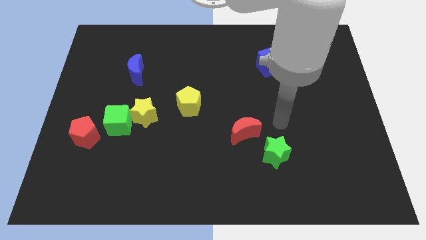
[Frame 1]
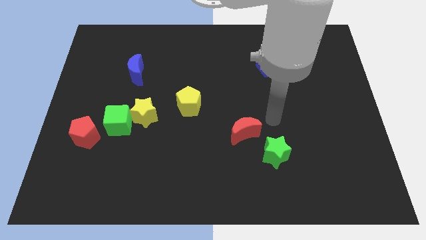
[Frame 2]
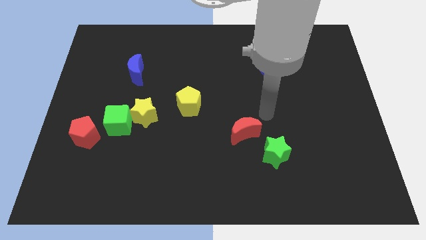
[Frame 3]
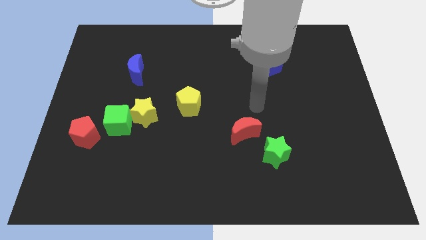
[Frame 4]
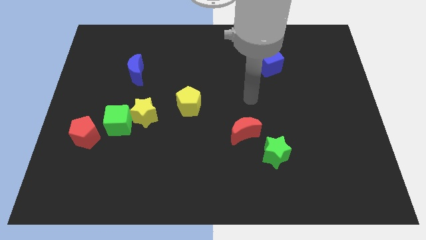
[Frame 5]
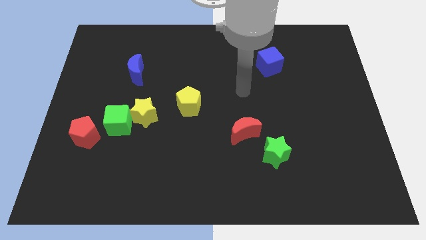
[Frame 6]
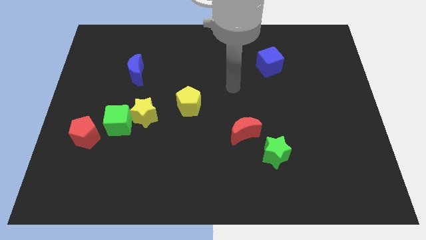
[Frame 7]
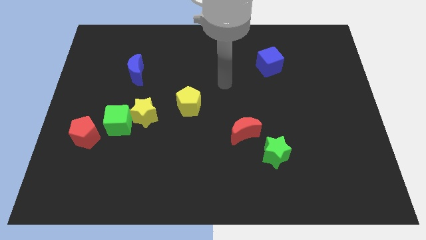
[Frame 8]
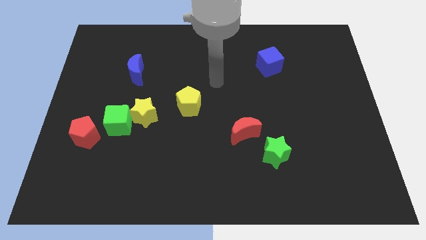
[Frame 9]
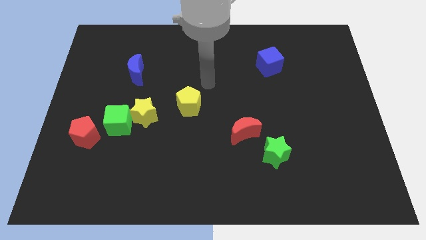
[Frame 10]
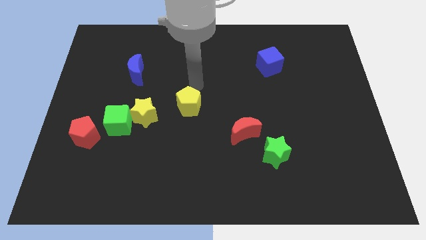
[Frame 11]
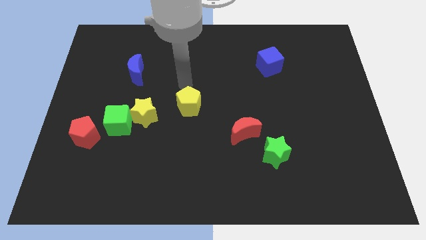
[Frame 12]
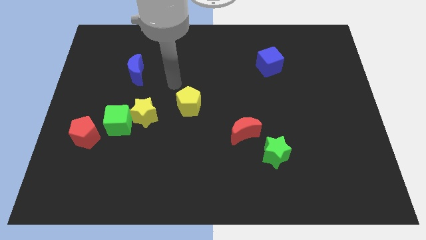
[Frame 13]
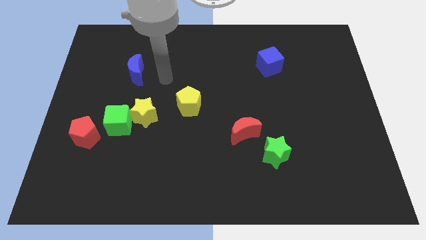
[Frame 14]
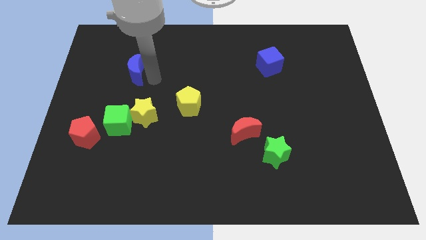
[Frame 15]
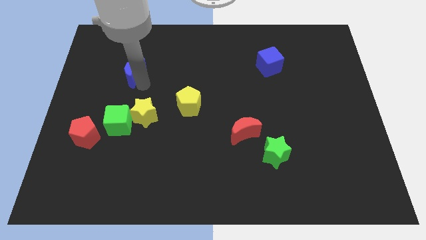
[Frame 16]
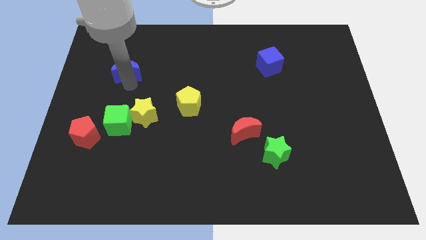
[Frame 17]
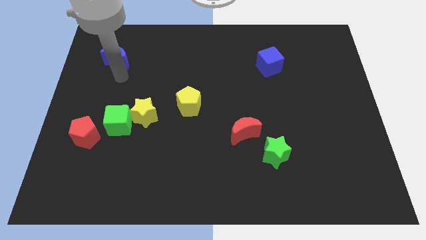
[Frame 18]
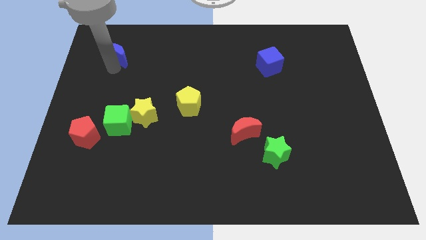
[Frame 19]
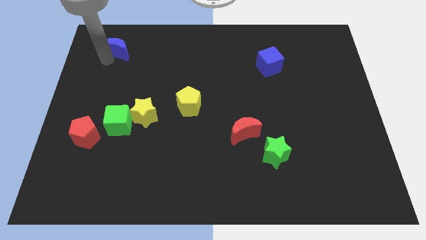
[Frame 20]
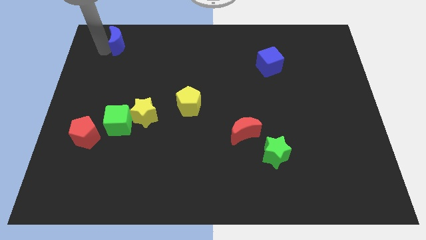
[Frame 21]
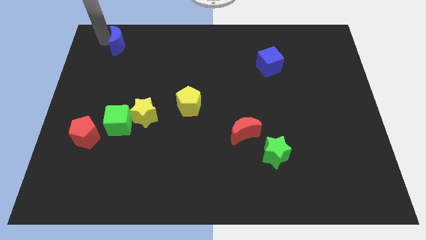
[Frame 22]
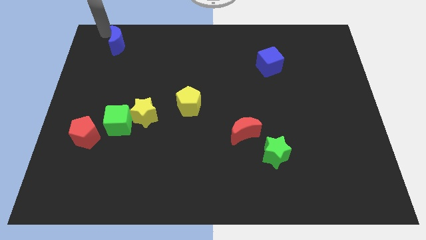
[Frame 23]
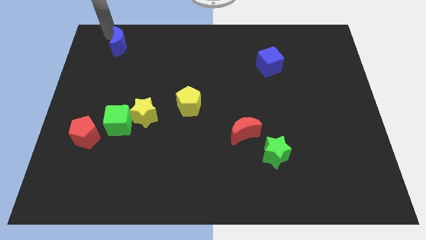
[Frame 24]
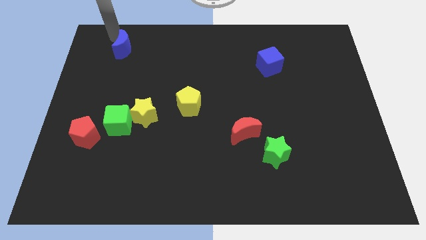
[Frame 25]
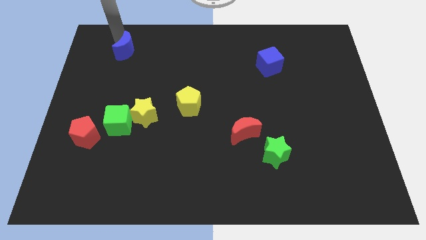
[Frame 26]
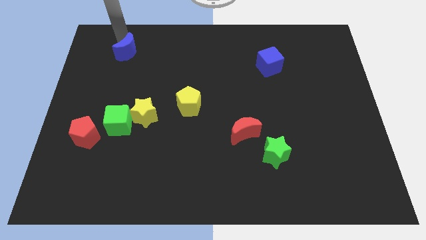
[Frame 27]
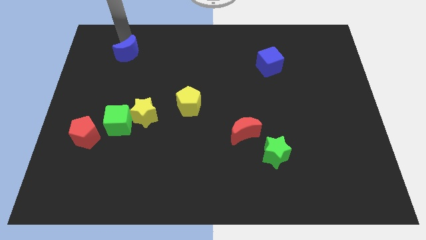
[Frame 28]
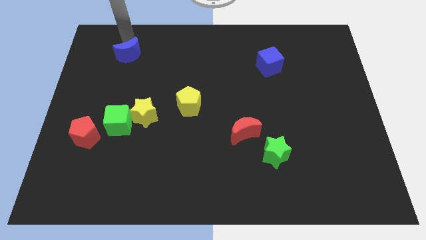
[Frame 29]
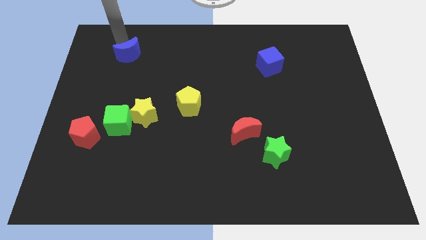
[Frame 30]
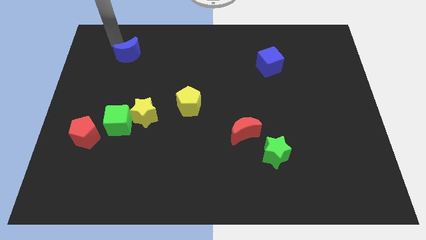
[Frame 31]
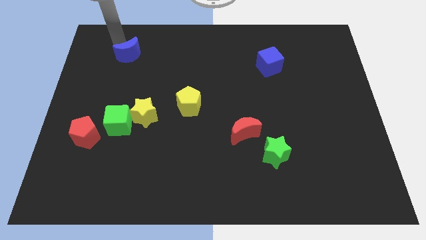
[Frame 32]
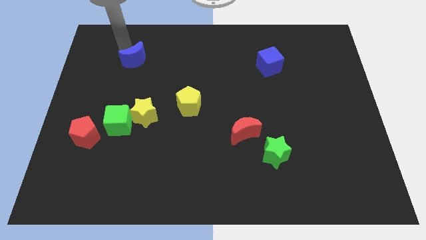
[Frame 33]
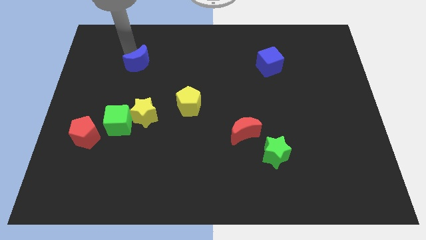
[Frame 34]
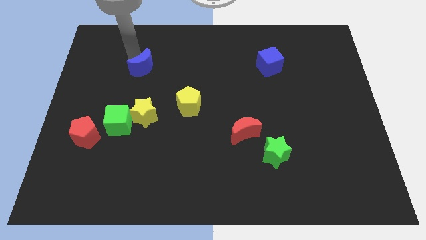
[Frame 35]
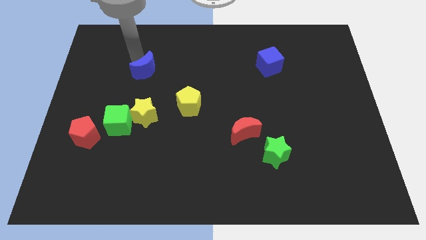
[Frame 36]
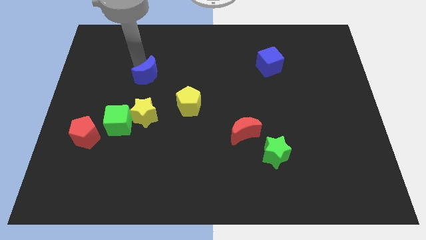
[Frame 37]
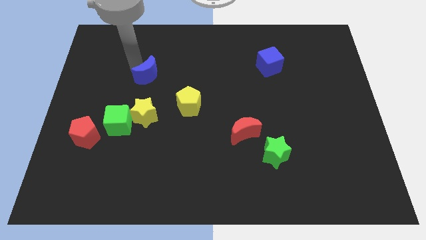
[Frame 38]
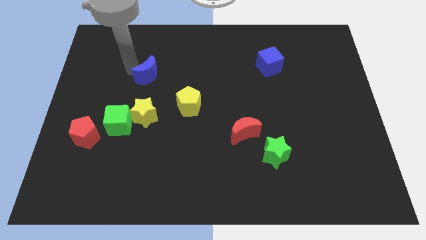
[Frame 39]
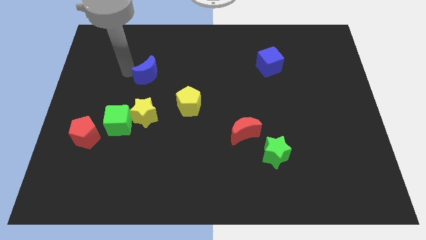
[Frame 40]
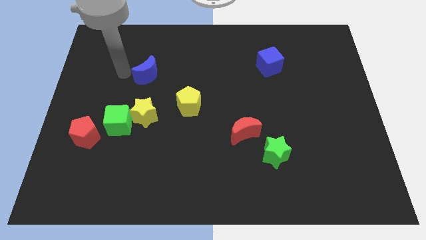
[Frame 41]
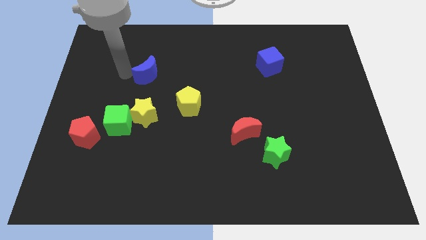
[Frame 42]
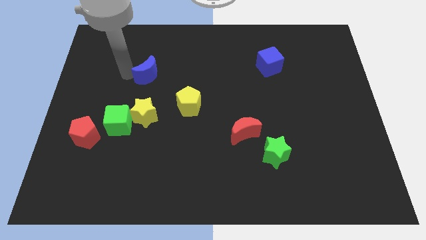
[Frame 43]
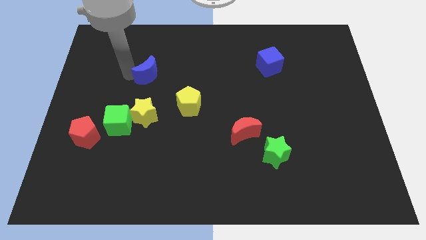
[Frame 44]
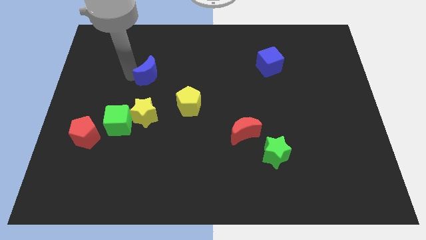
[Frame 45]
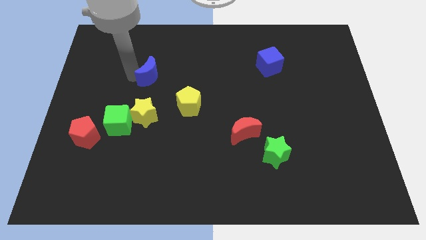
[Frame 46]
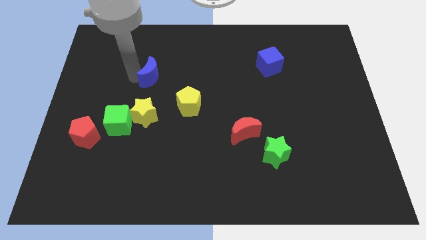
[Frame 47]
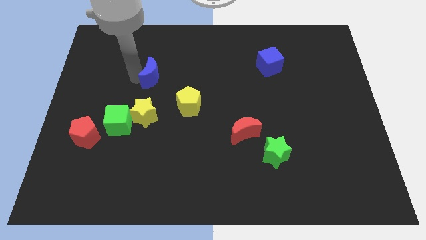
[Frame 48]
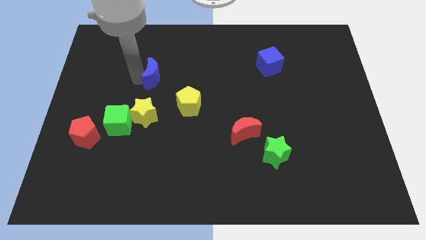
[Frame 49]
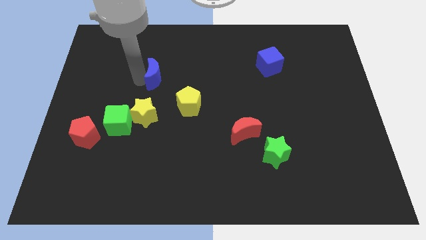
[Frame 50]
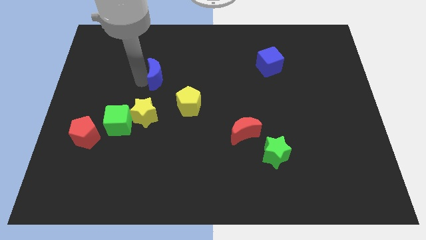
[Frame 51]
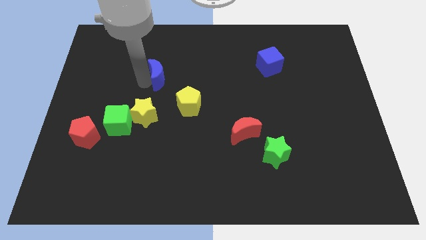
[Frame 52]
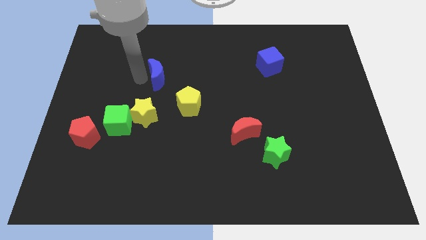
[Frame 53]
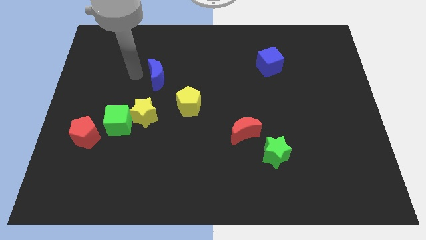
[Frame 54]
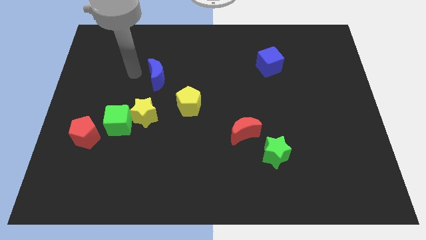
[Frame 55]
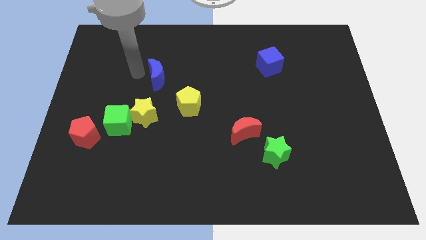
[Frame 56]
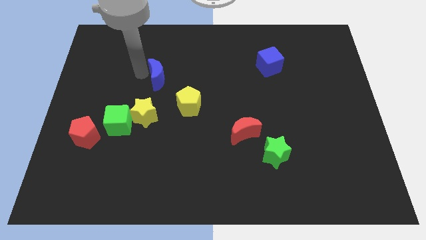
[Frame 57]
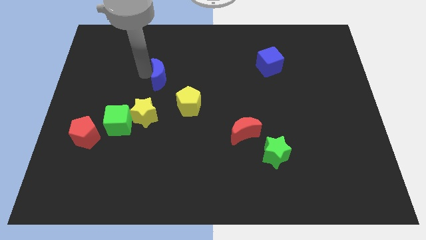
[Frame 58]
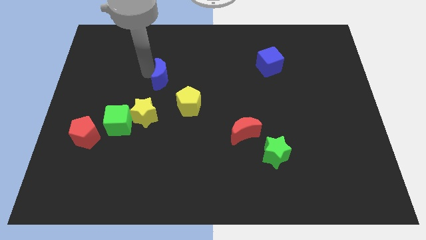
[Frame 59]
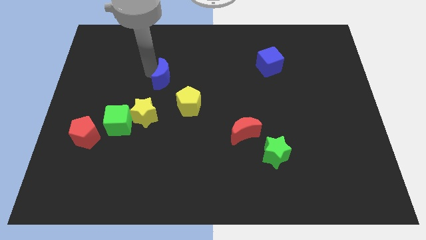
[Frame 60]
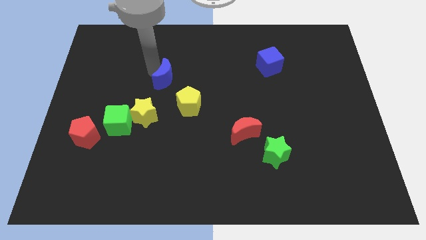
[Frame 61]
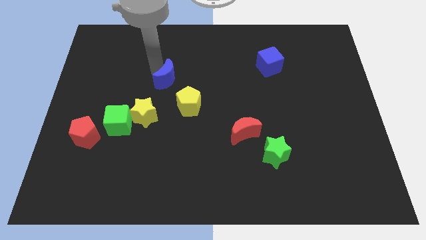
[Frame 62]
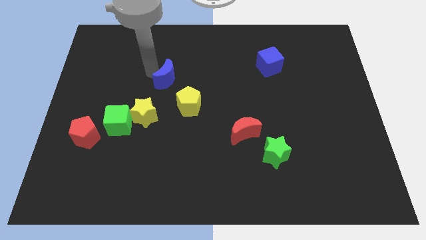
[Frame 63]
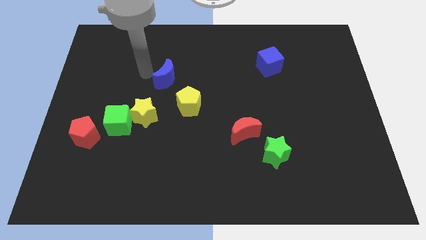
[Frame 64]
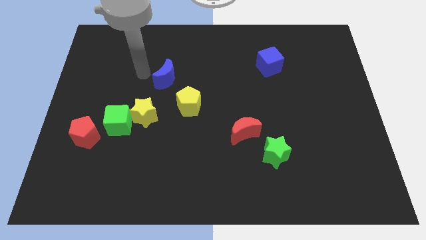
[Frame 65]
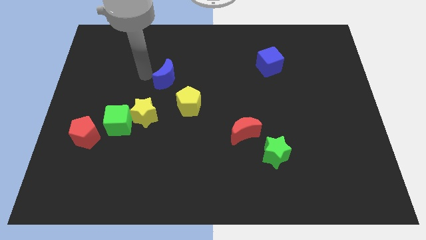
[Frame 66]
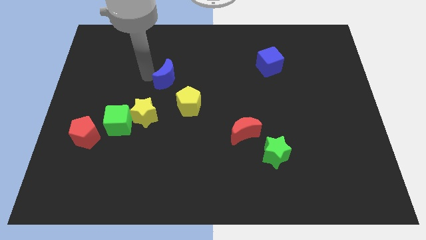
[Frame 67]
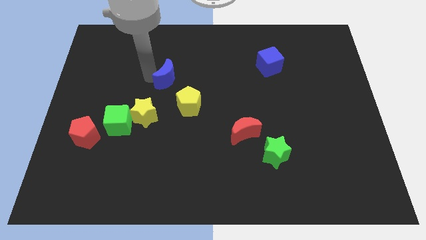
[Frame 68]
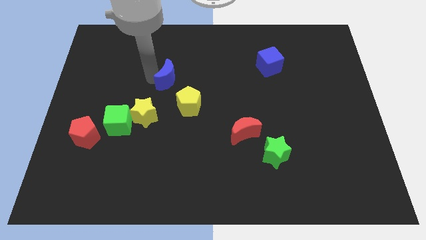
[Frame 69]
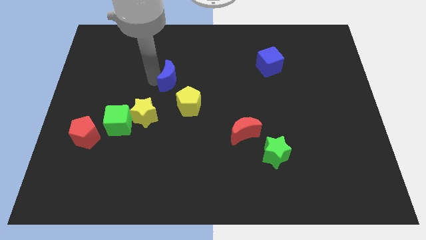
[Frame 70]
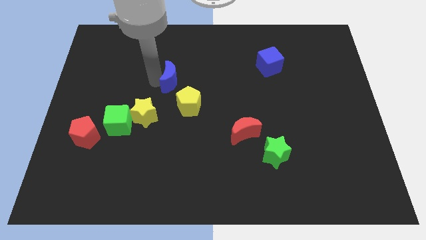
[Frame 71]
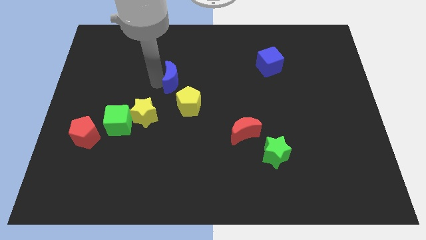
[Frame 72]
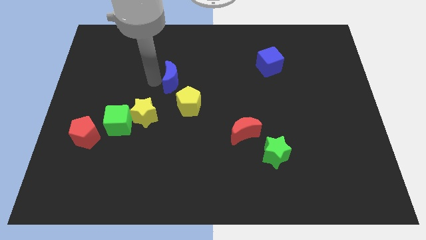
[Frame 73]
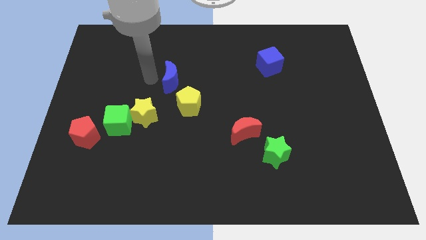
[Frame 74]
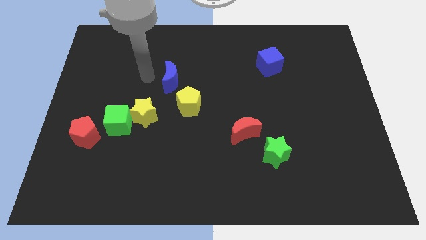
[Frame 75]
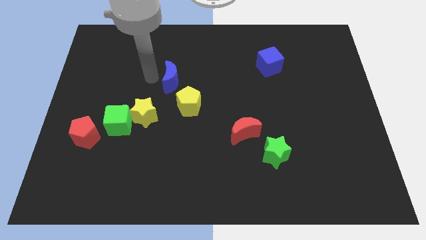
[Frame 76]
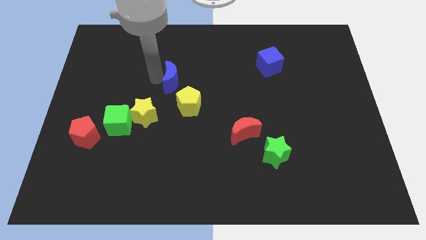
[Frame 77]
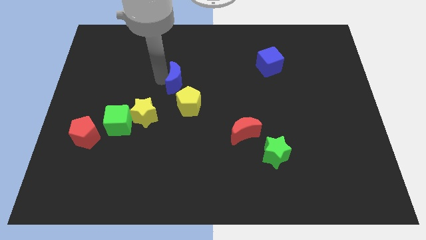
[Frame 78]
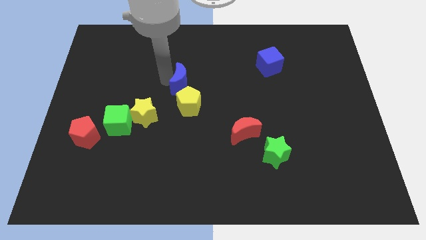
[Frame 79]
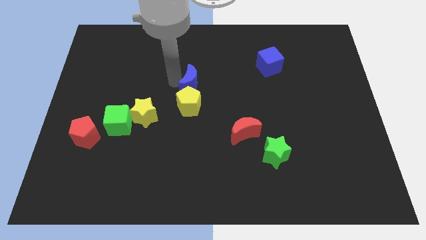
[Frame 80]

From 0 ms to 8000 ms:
push the blue moon diagonally up and to the right of the yellow pentagon
